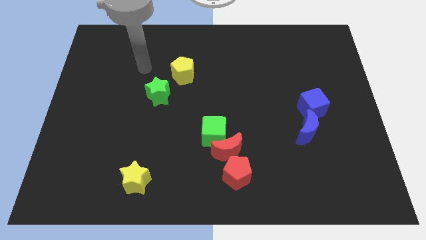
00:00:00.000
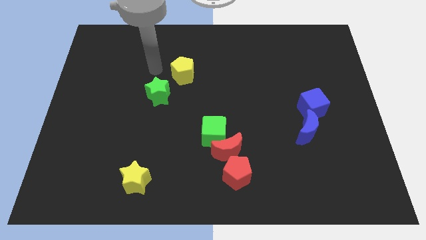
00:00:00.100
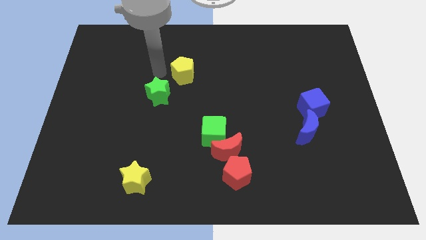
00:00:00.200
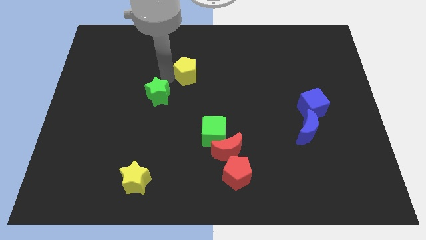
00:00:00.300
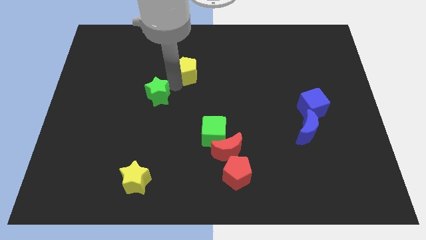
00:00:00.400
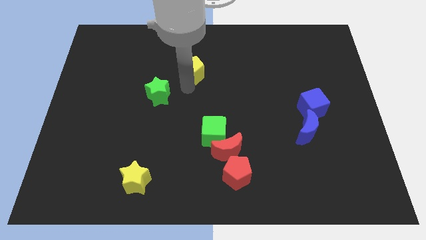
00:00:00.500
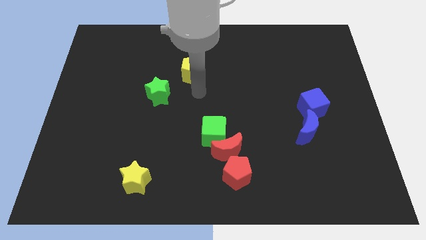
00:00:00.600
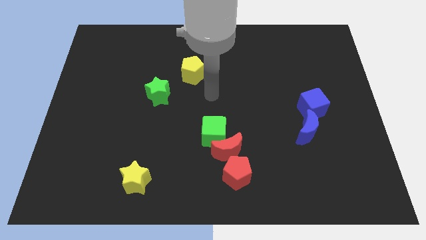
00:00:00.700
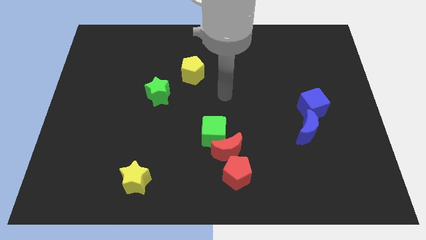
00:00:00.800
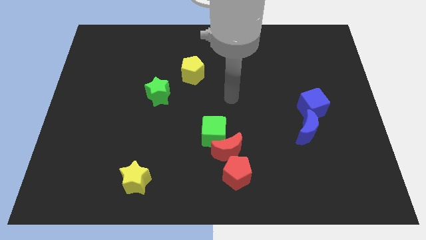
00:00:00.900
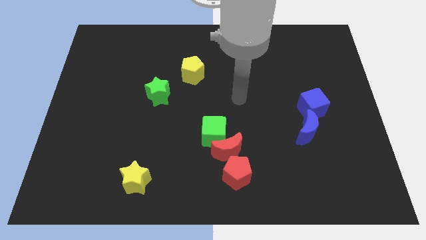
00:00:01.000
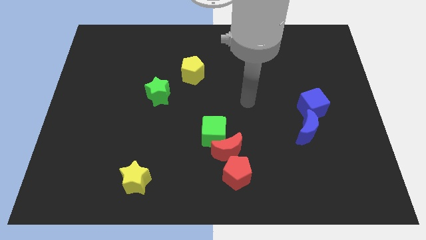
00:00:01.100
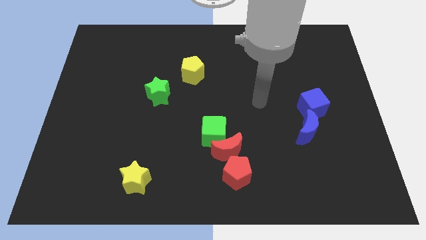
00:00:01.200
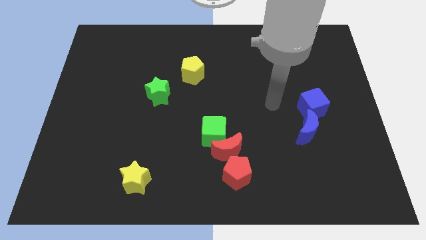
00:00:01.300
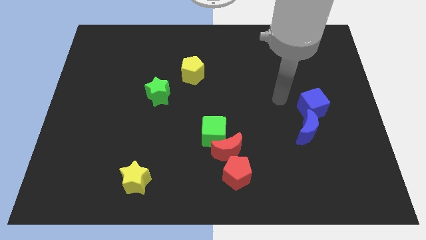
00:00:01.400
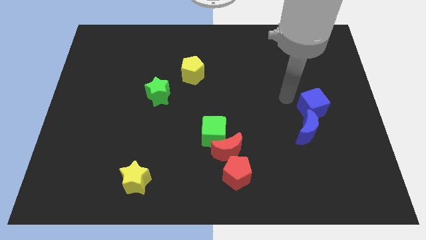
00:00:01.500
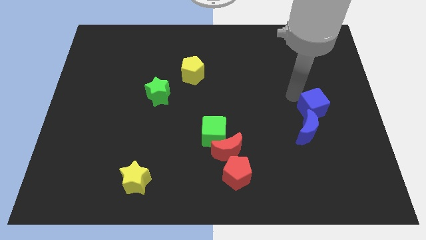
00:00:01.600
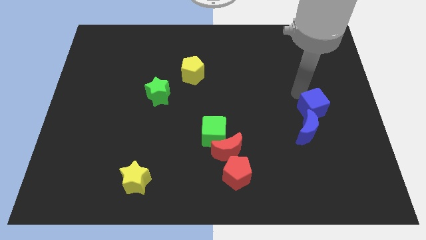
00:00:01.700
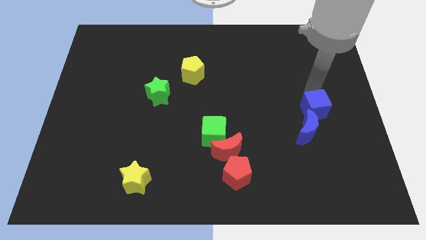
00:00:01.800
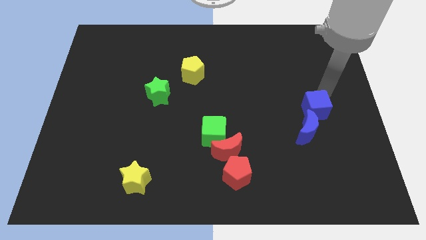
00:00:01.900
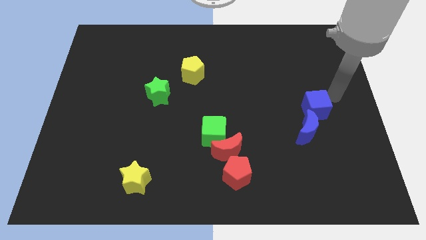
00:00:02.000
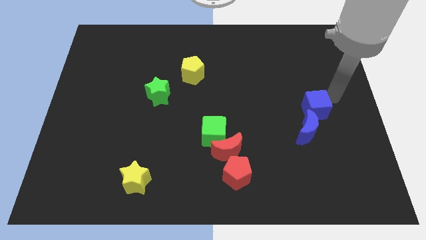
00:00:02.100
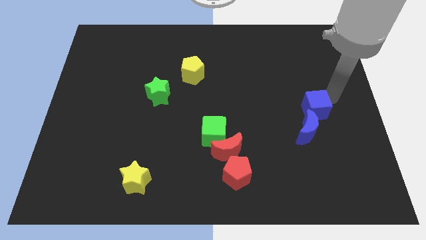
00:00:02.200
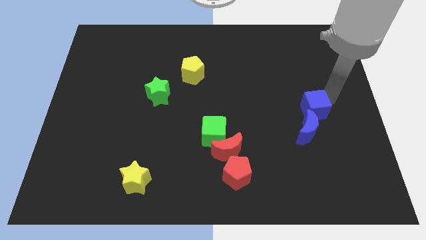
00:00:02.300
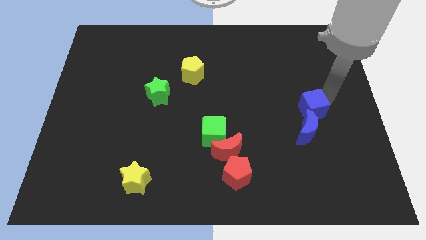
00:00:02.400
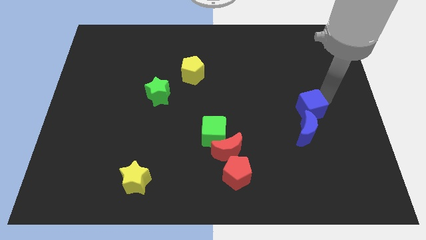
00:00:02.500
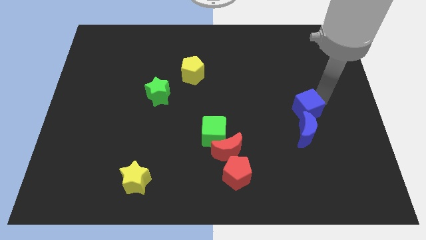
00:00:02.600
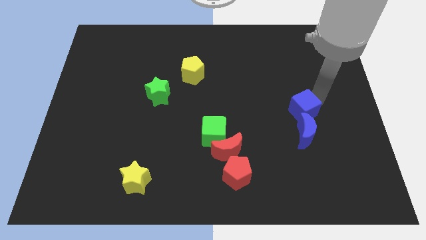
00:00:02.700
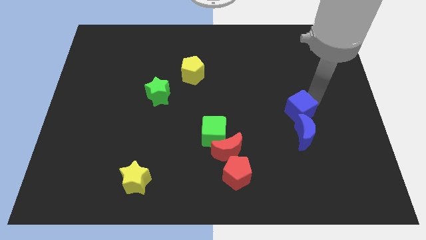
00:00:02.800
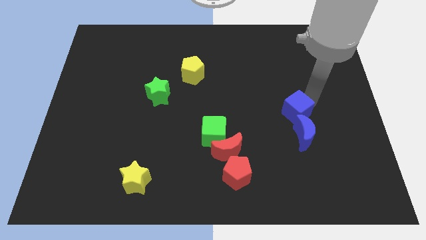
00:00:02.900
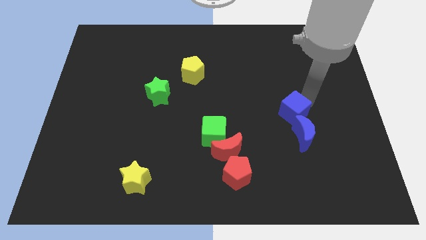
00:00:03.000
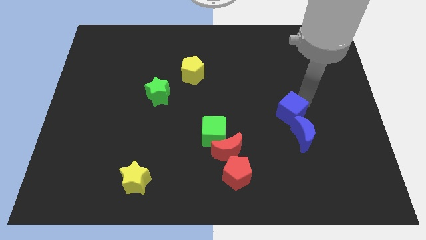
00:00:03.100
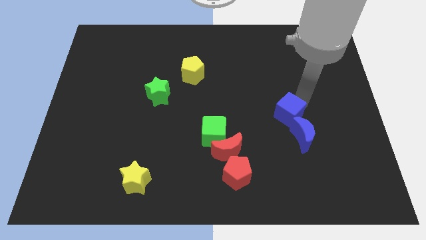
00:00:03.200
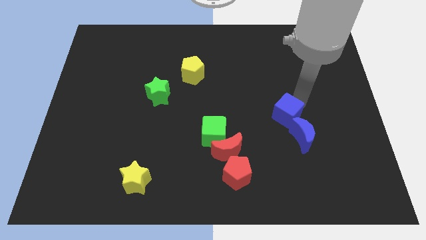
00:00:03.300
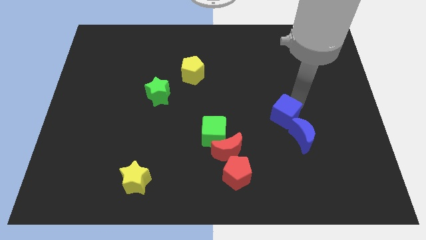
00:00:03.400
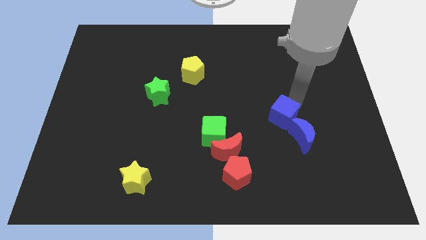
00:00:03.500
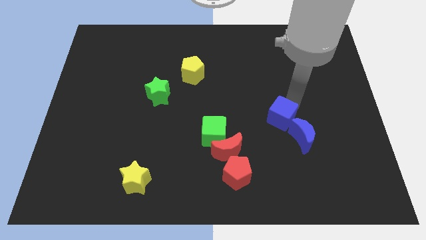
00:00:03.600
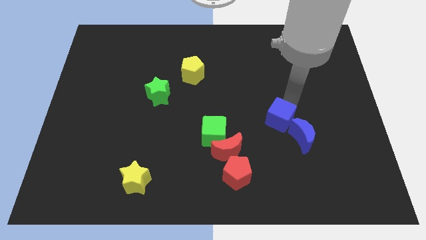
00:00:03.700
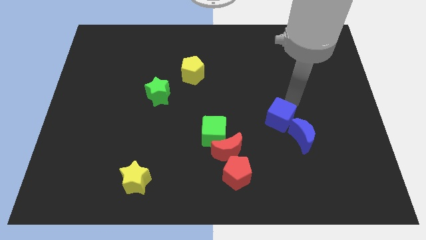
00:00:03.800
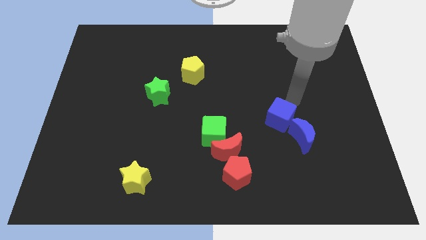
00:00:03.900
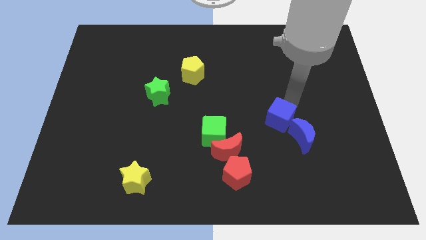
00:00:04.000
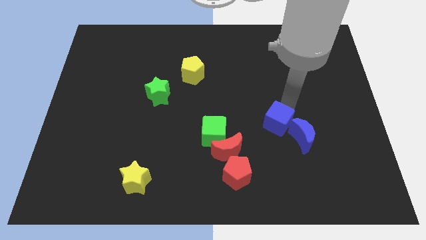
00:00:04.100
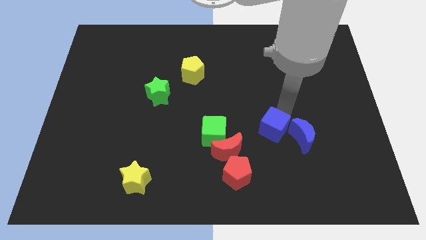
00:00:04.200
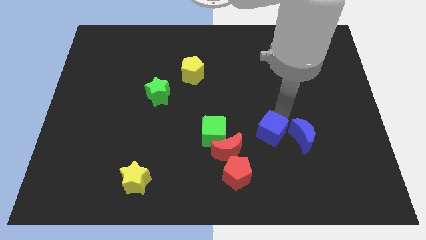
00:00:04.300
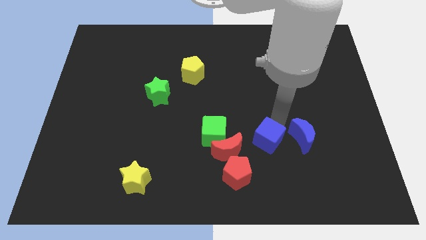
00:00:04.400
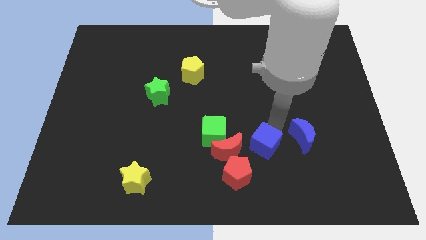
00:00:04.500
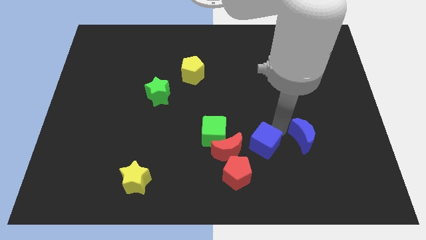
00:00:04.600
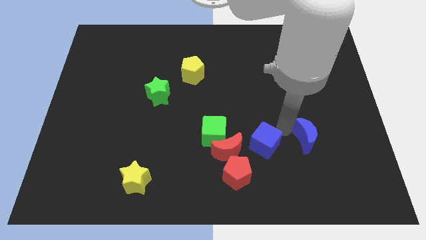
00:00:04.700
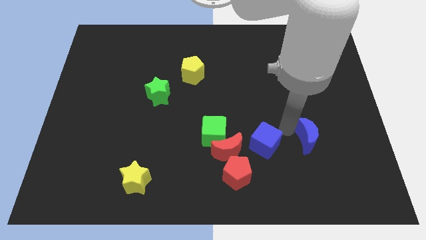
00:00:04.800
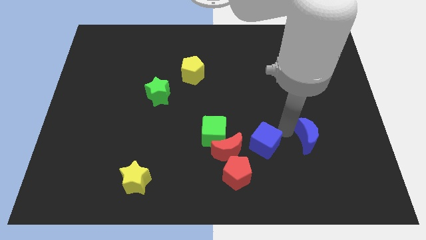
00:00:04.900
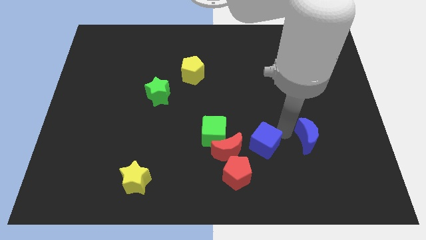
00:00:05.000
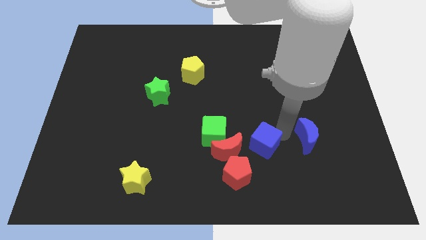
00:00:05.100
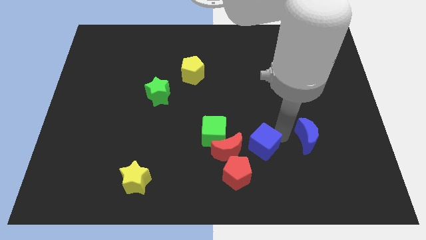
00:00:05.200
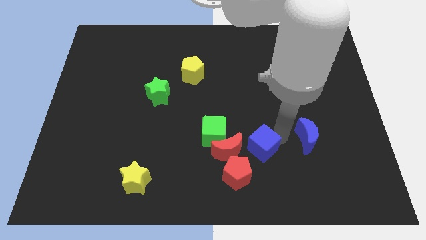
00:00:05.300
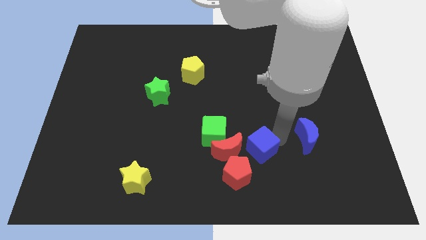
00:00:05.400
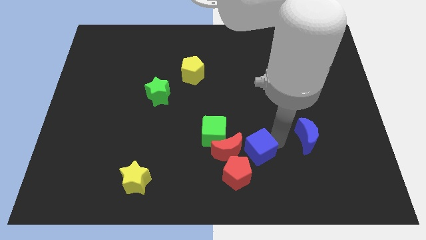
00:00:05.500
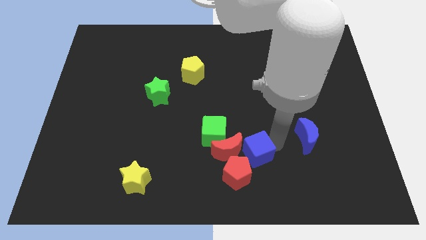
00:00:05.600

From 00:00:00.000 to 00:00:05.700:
put the blue cube close to the red moon
